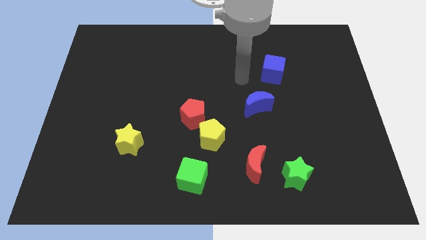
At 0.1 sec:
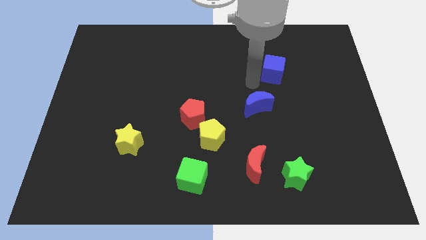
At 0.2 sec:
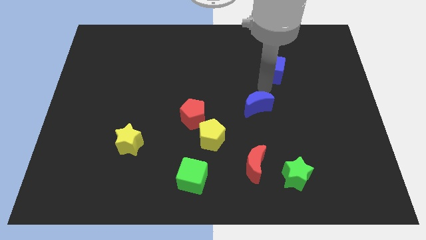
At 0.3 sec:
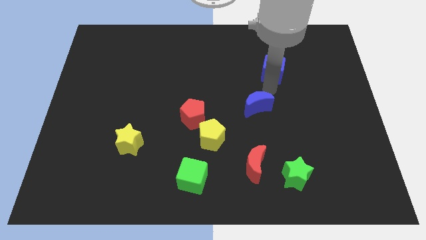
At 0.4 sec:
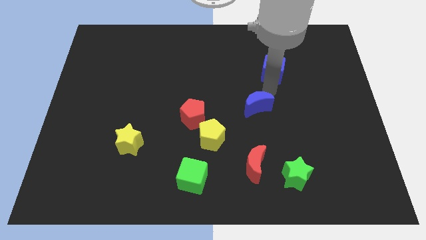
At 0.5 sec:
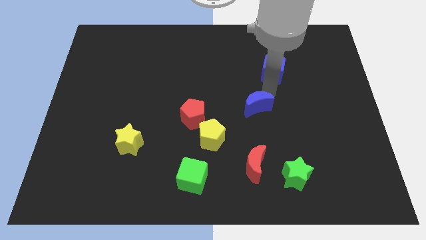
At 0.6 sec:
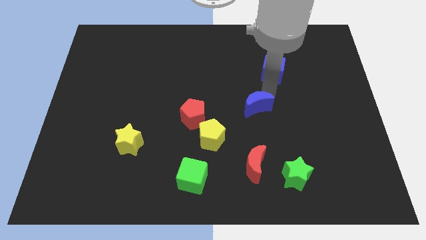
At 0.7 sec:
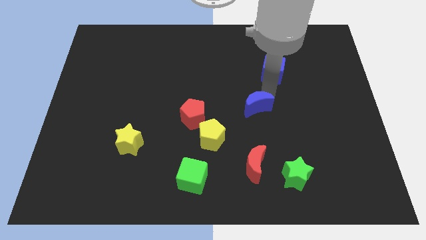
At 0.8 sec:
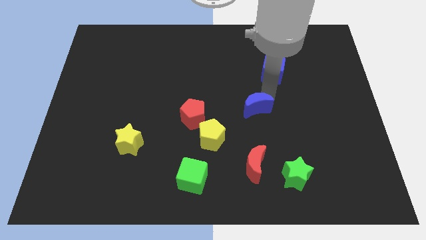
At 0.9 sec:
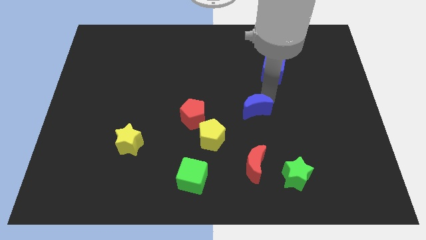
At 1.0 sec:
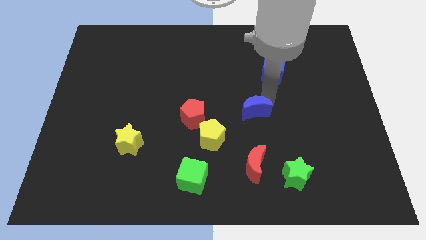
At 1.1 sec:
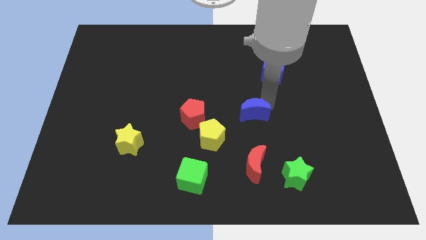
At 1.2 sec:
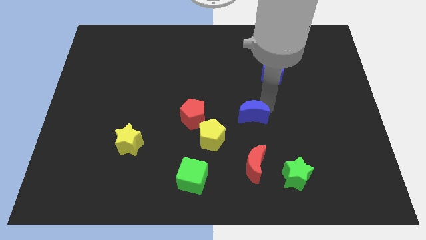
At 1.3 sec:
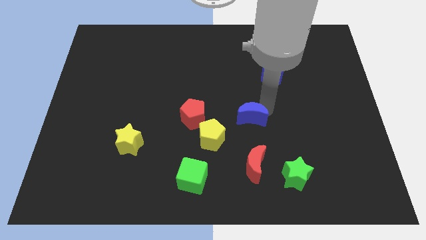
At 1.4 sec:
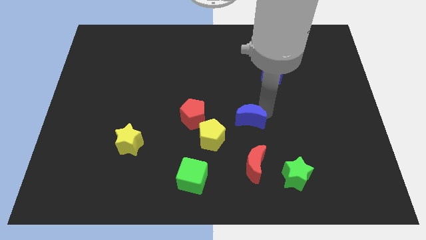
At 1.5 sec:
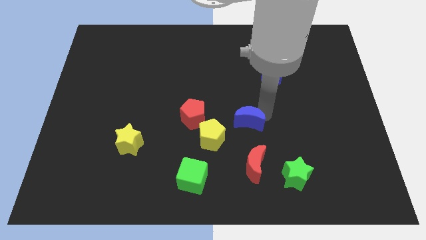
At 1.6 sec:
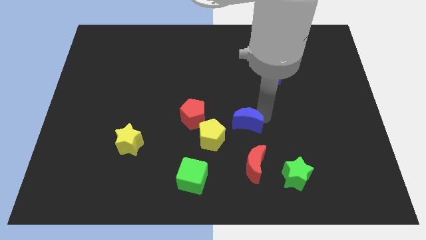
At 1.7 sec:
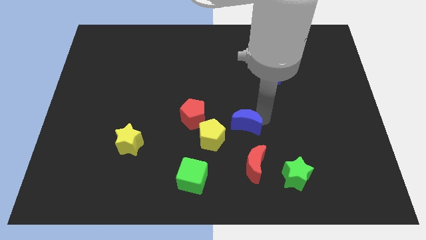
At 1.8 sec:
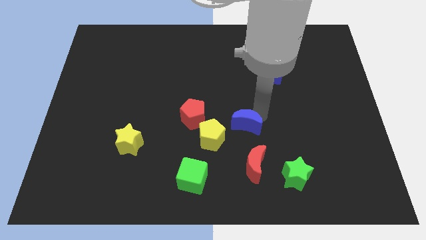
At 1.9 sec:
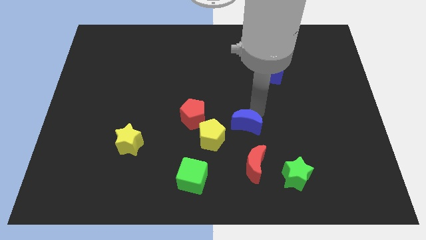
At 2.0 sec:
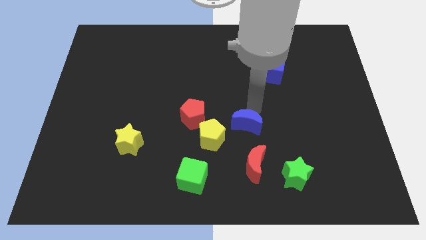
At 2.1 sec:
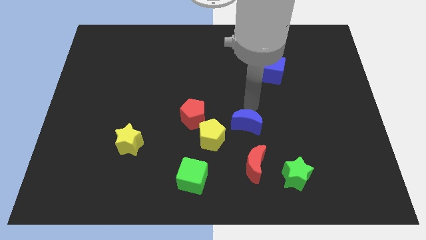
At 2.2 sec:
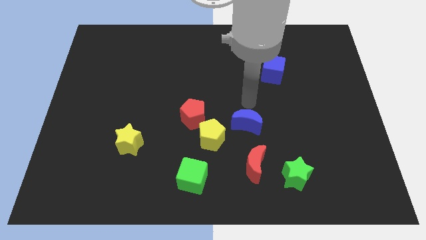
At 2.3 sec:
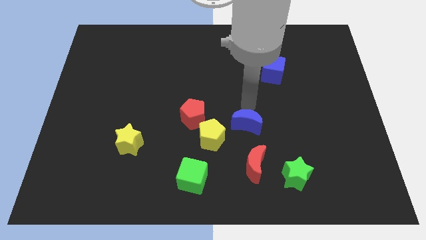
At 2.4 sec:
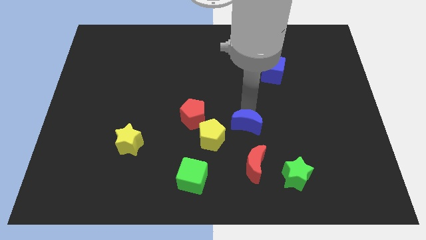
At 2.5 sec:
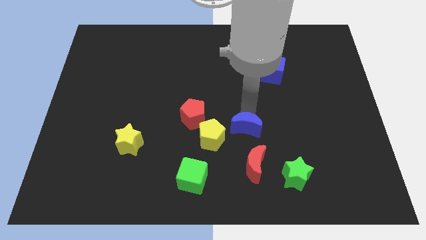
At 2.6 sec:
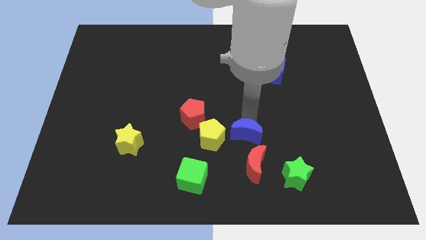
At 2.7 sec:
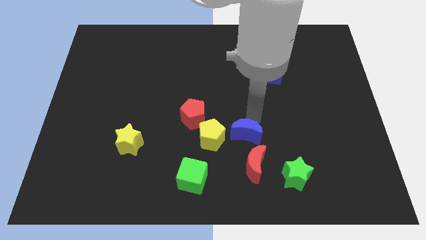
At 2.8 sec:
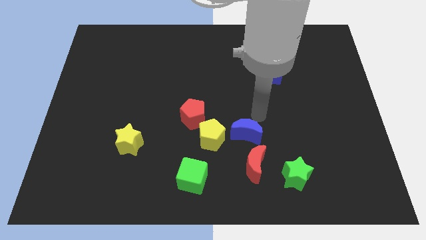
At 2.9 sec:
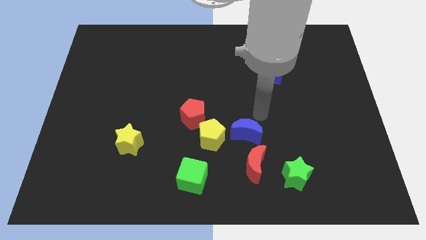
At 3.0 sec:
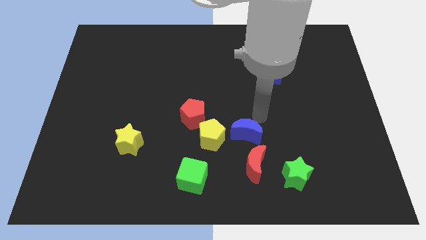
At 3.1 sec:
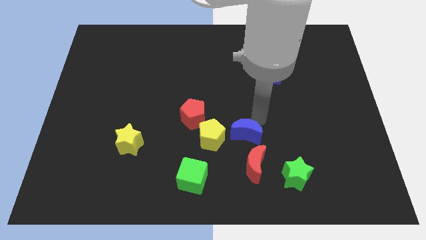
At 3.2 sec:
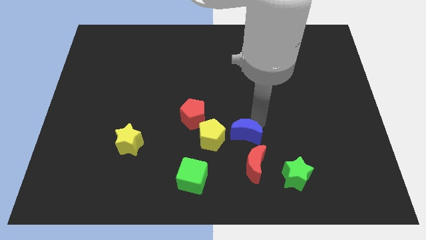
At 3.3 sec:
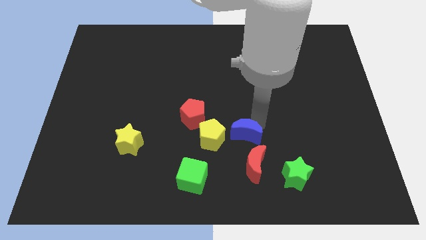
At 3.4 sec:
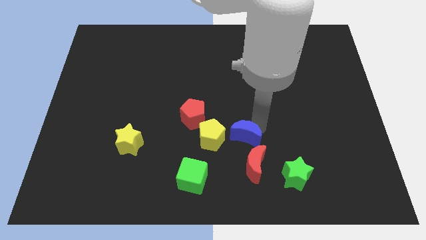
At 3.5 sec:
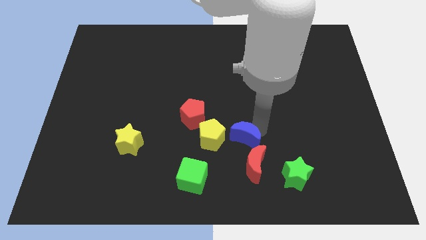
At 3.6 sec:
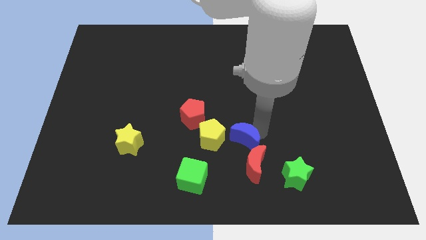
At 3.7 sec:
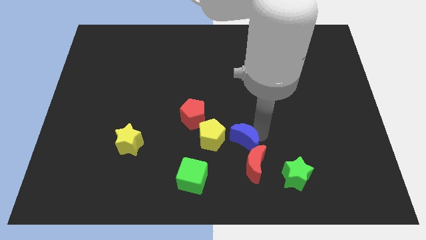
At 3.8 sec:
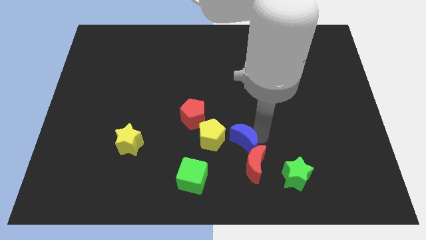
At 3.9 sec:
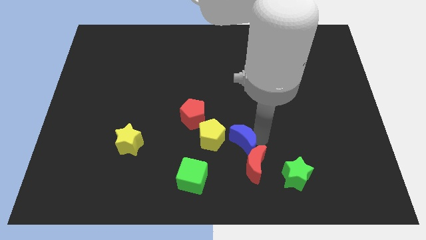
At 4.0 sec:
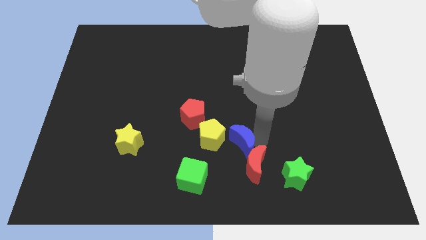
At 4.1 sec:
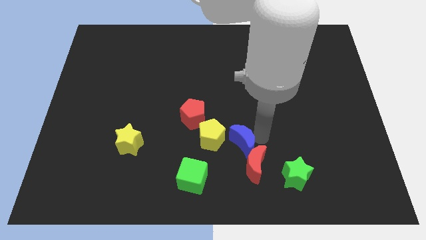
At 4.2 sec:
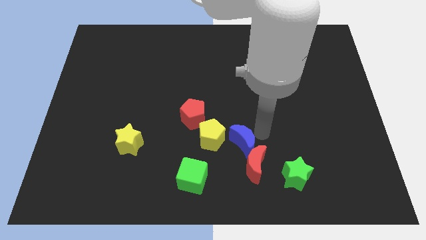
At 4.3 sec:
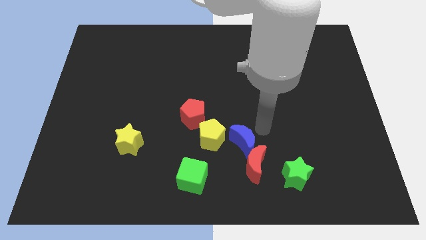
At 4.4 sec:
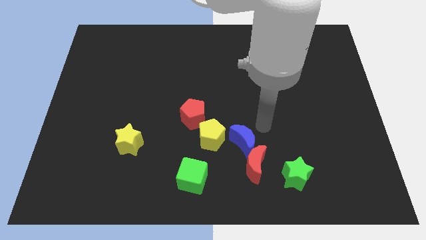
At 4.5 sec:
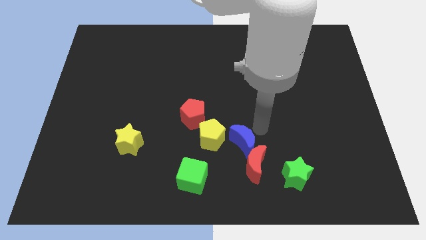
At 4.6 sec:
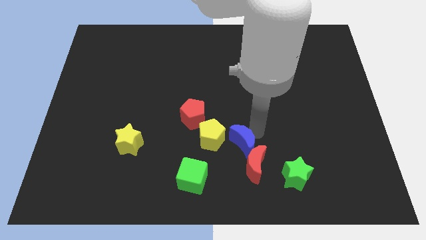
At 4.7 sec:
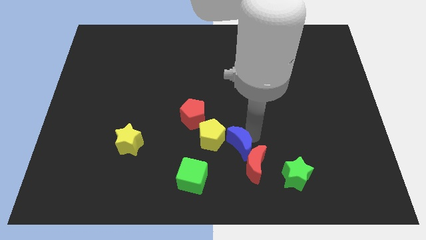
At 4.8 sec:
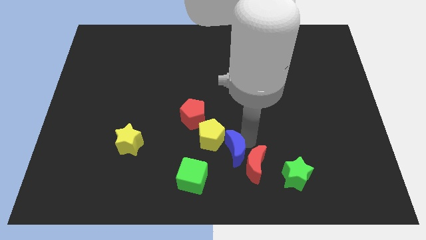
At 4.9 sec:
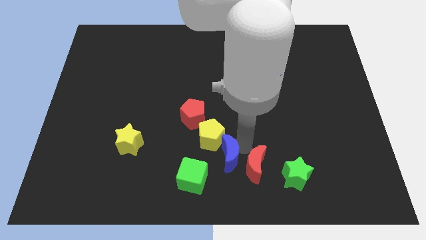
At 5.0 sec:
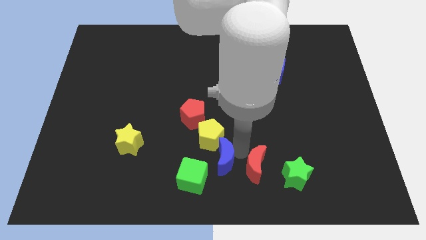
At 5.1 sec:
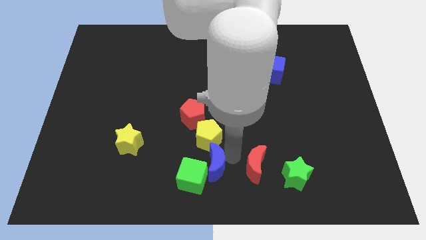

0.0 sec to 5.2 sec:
move the blue moon next to the green cube

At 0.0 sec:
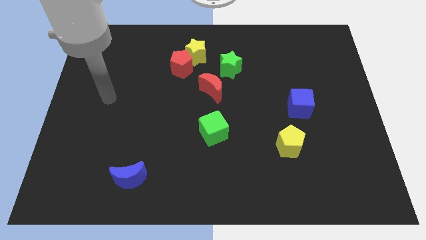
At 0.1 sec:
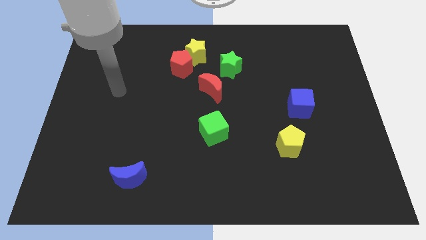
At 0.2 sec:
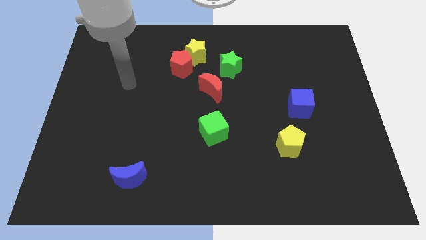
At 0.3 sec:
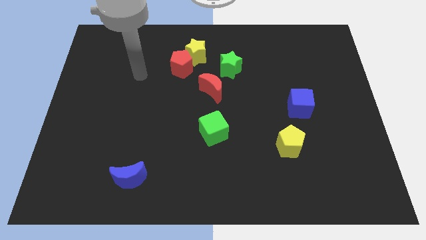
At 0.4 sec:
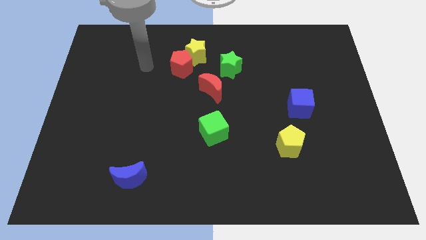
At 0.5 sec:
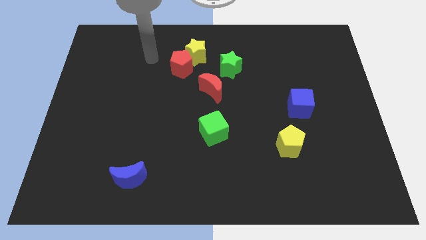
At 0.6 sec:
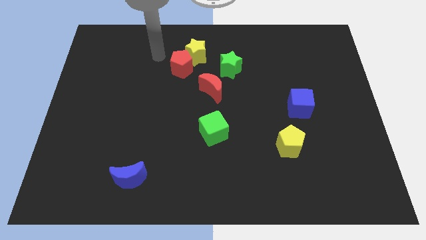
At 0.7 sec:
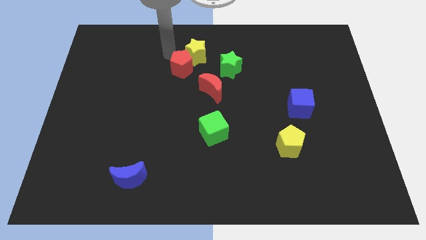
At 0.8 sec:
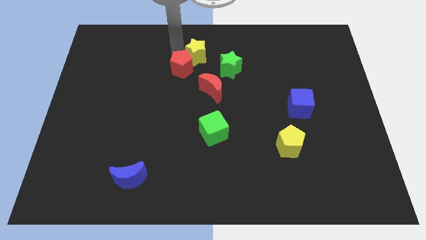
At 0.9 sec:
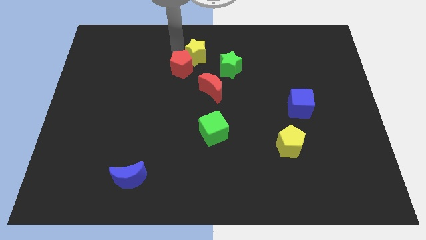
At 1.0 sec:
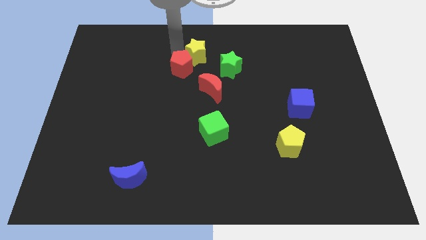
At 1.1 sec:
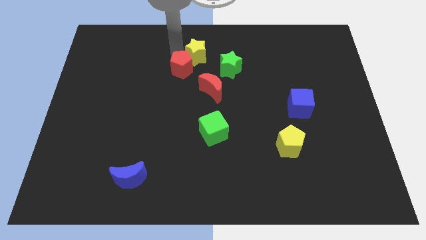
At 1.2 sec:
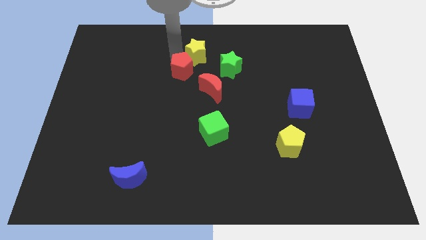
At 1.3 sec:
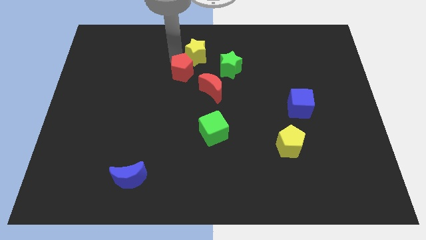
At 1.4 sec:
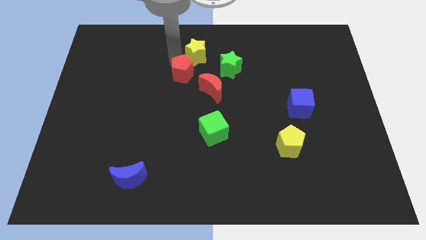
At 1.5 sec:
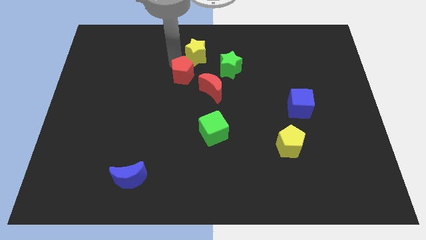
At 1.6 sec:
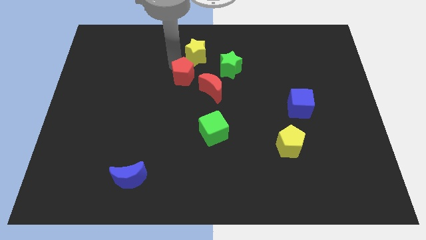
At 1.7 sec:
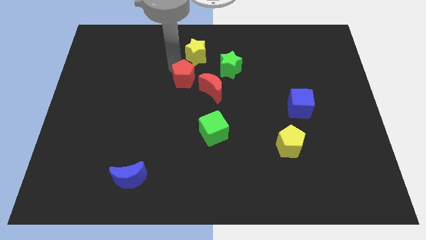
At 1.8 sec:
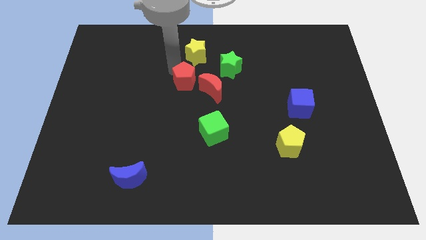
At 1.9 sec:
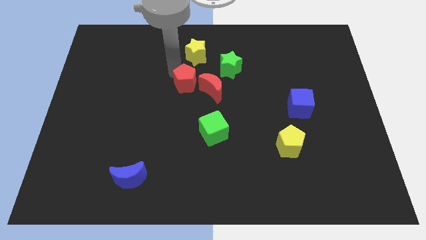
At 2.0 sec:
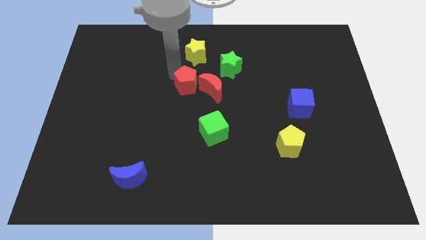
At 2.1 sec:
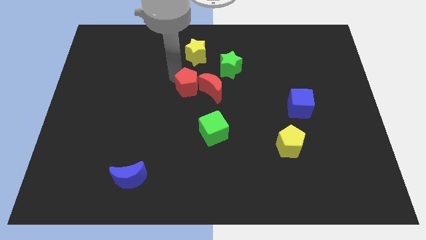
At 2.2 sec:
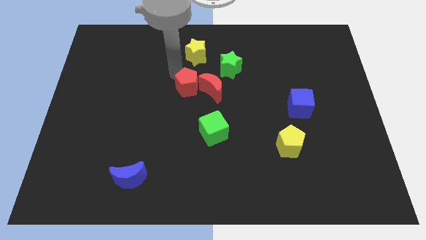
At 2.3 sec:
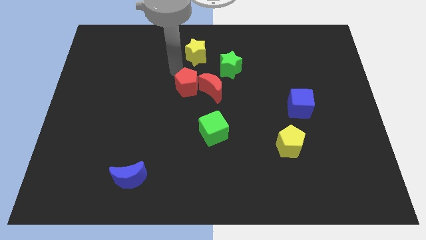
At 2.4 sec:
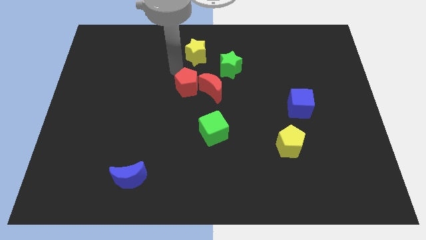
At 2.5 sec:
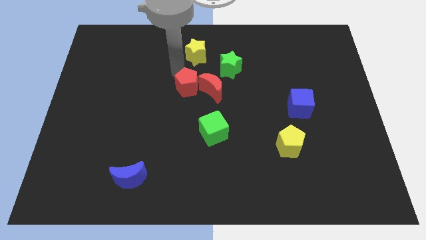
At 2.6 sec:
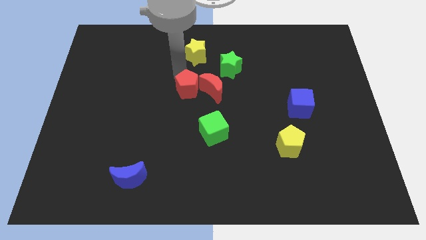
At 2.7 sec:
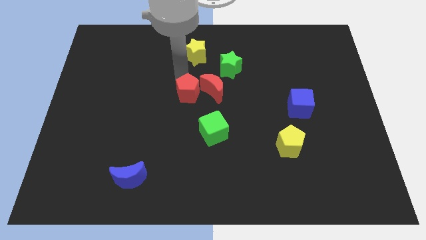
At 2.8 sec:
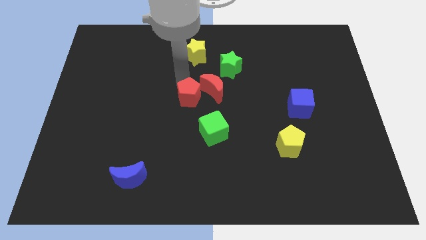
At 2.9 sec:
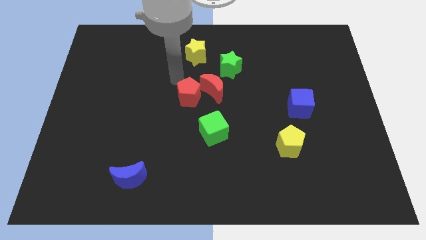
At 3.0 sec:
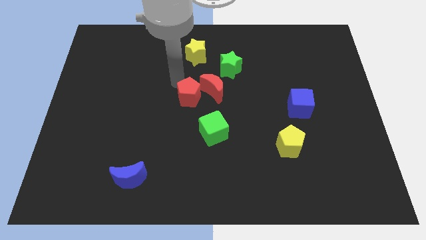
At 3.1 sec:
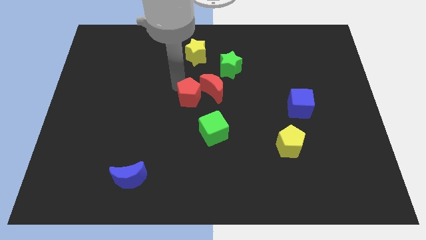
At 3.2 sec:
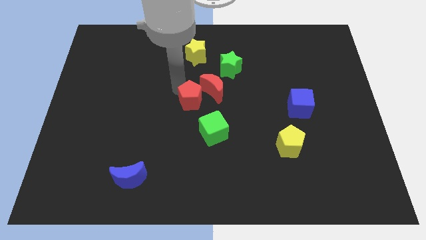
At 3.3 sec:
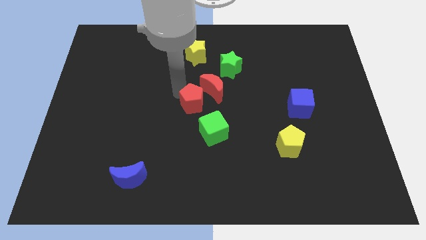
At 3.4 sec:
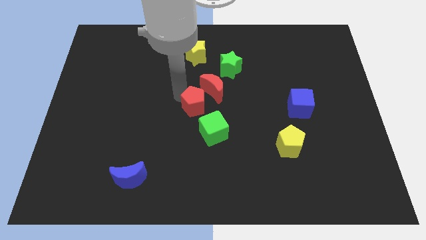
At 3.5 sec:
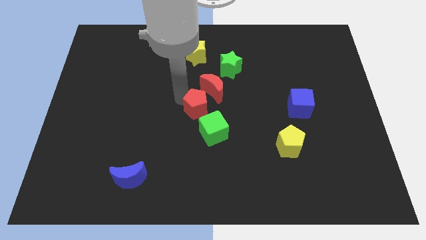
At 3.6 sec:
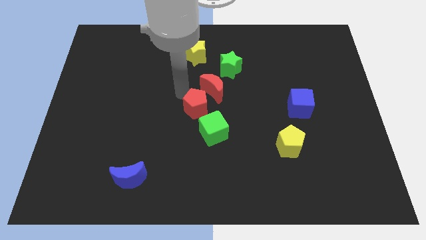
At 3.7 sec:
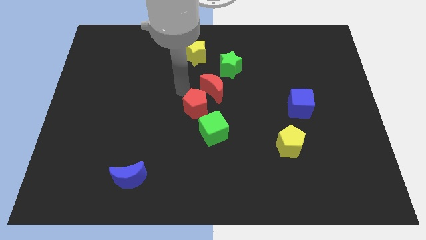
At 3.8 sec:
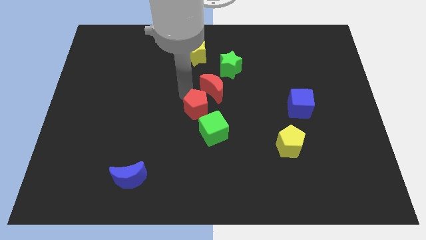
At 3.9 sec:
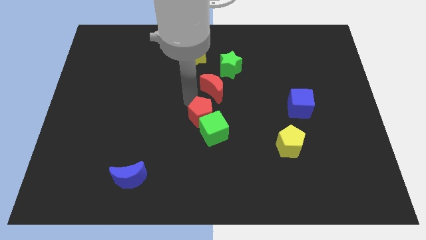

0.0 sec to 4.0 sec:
push the red pentagon towards the green cube
